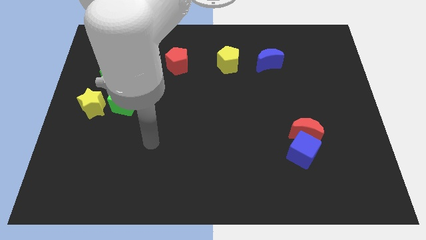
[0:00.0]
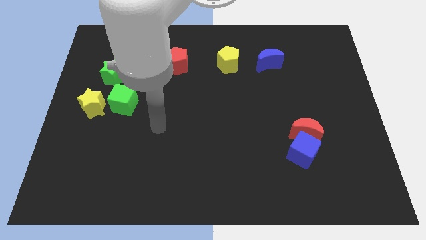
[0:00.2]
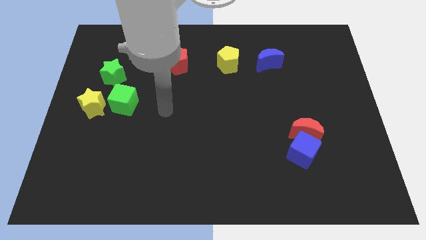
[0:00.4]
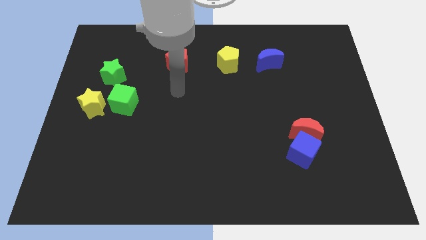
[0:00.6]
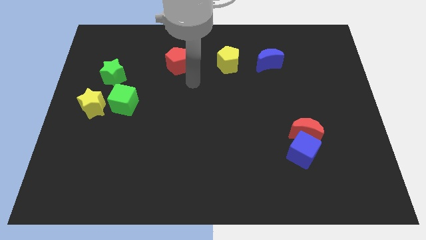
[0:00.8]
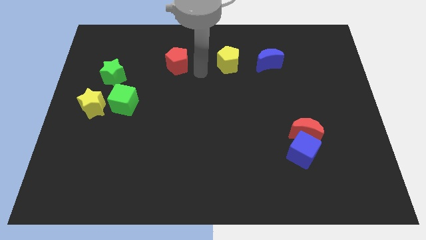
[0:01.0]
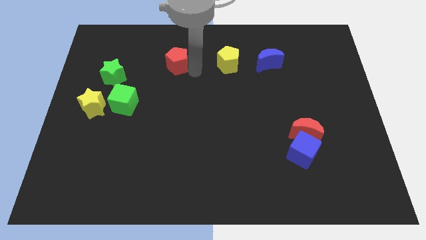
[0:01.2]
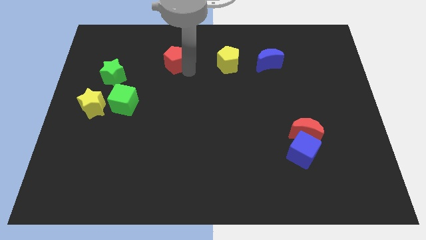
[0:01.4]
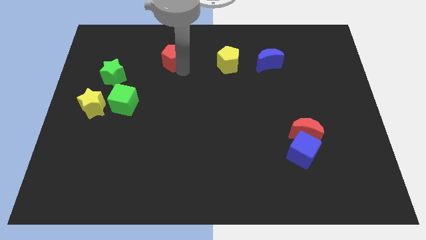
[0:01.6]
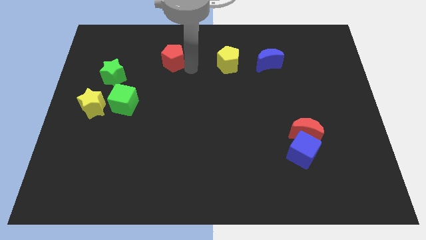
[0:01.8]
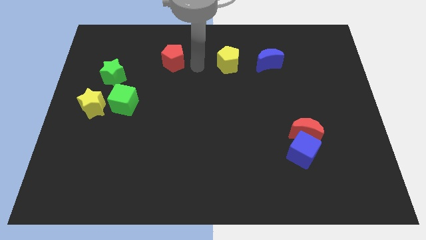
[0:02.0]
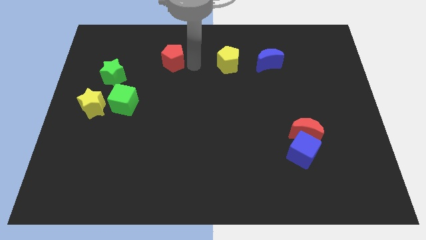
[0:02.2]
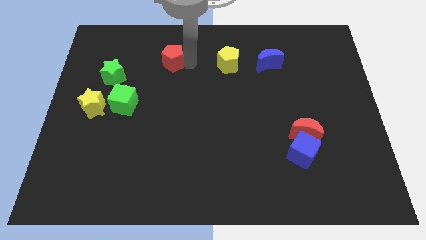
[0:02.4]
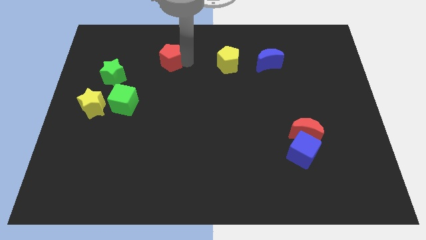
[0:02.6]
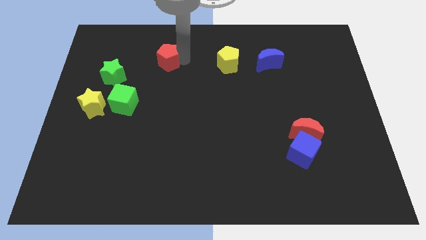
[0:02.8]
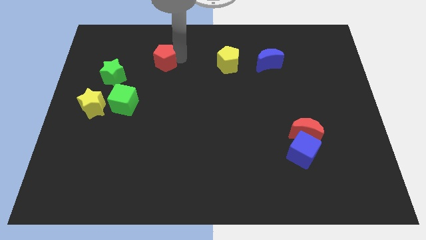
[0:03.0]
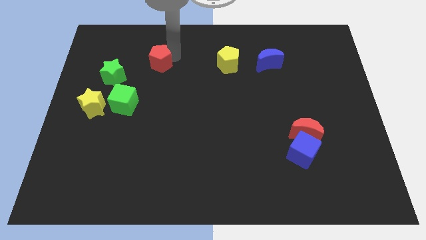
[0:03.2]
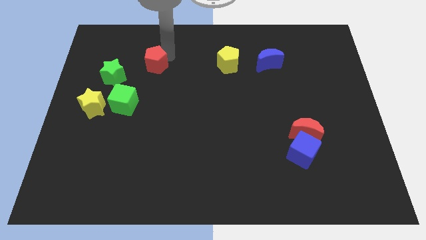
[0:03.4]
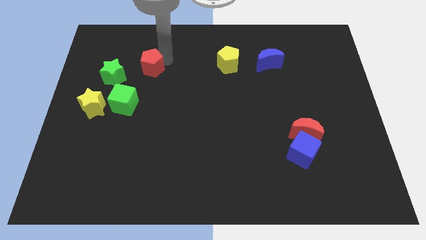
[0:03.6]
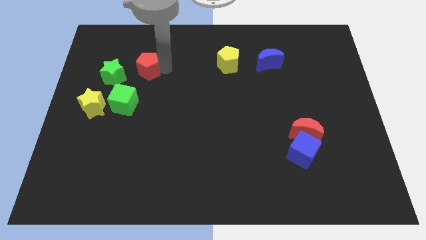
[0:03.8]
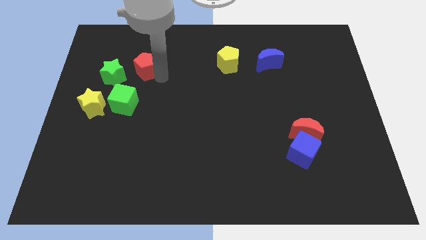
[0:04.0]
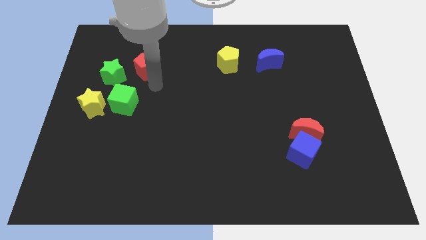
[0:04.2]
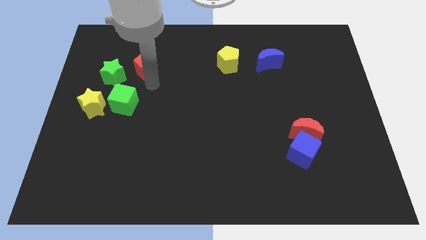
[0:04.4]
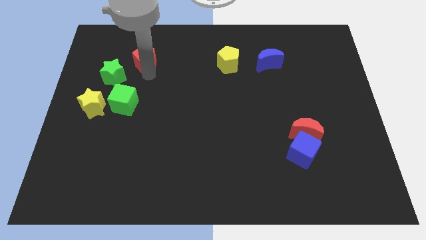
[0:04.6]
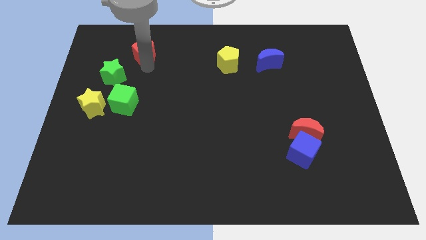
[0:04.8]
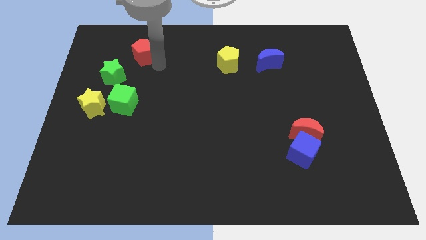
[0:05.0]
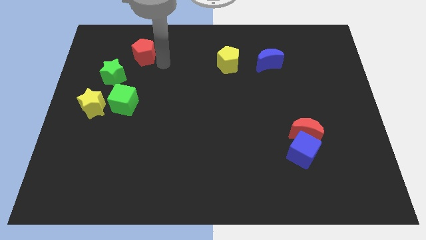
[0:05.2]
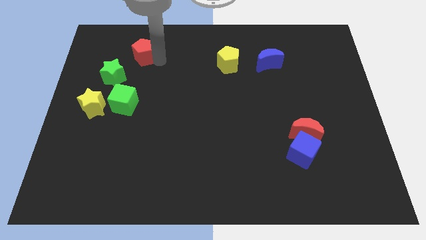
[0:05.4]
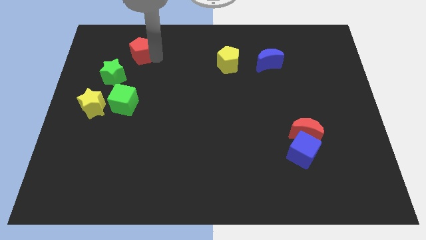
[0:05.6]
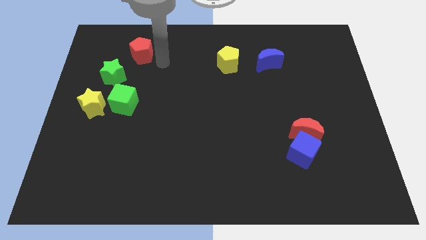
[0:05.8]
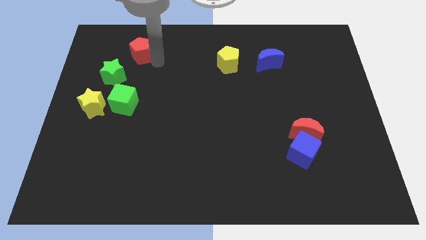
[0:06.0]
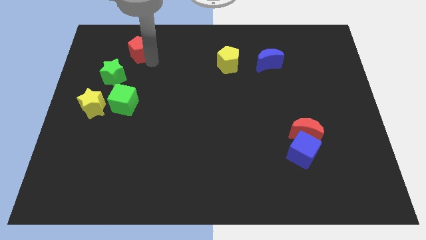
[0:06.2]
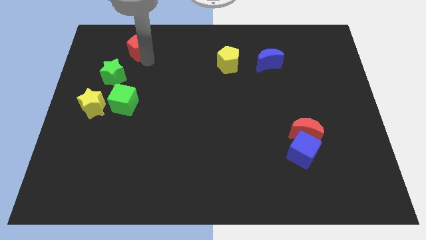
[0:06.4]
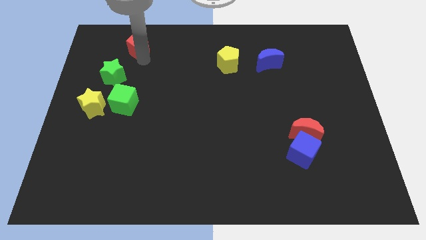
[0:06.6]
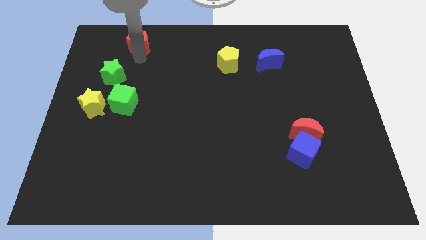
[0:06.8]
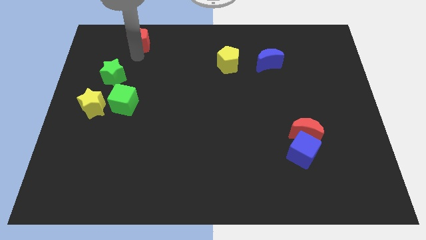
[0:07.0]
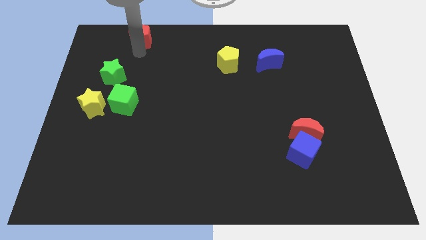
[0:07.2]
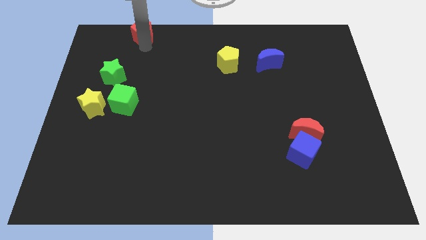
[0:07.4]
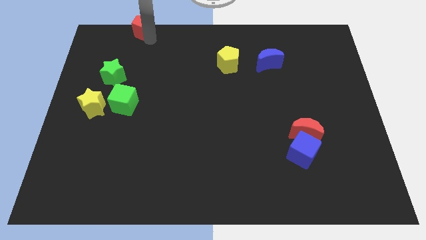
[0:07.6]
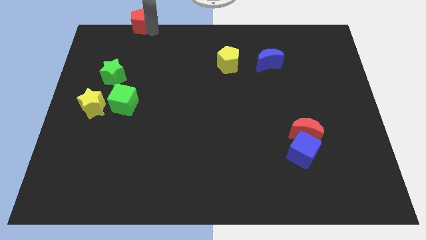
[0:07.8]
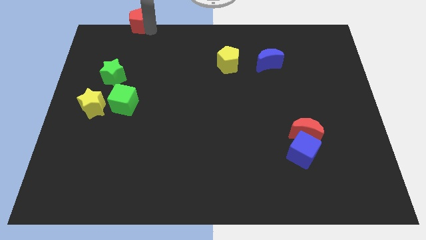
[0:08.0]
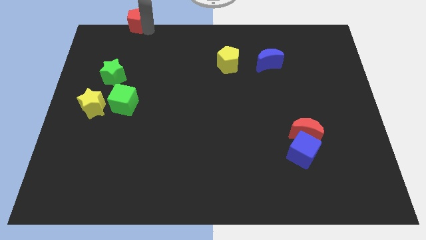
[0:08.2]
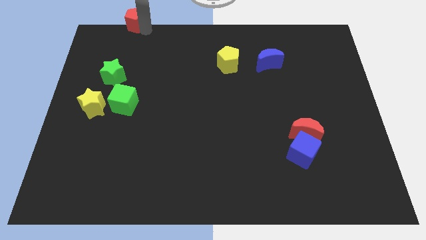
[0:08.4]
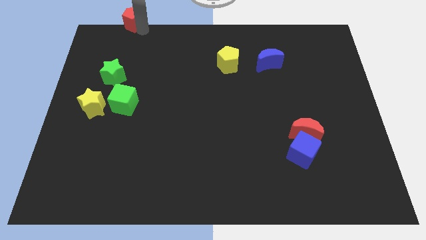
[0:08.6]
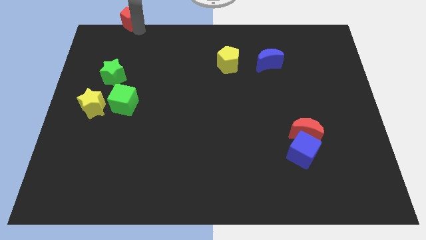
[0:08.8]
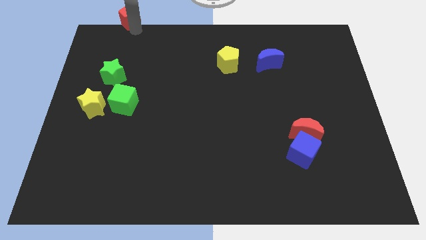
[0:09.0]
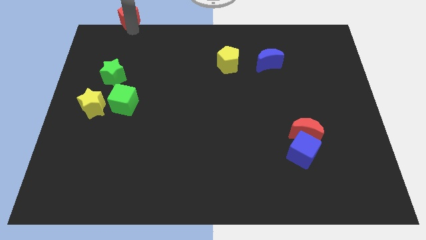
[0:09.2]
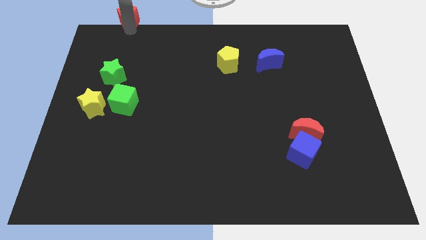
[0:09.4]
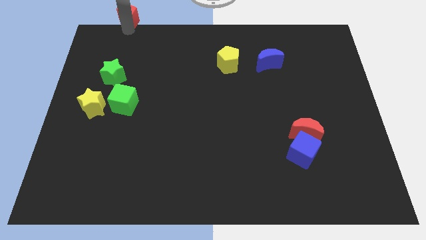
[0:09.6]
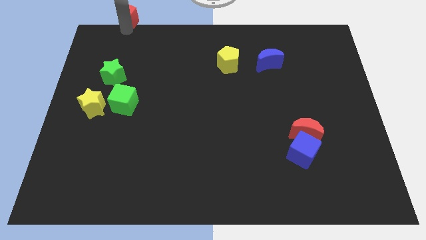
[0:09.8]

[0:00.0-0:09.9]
put the red pentagon to the top left corner
